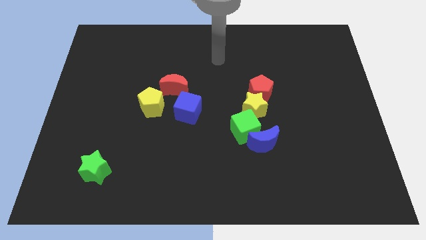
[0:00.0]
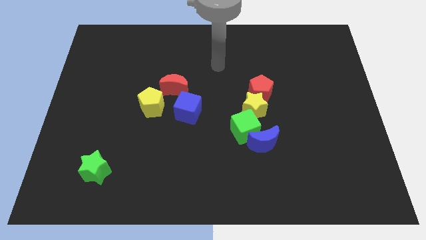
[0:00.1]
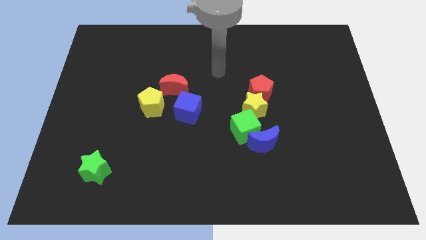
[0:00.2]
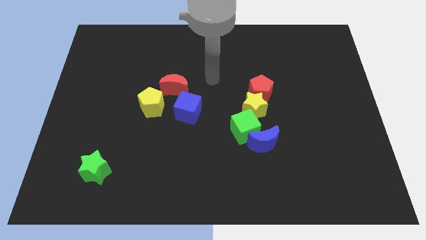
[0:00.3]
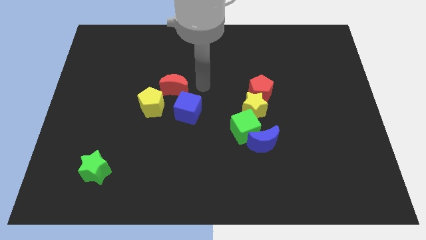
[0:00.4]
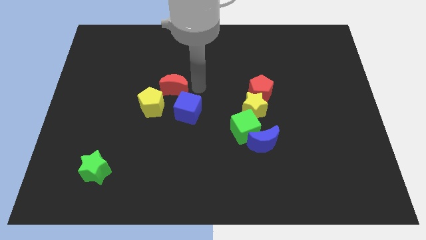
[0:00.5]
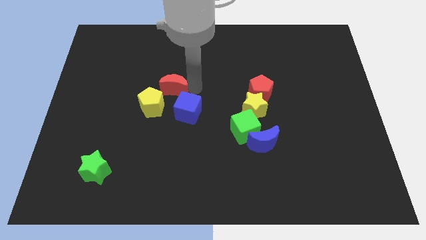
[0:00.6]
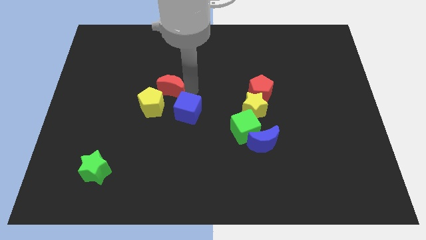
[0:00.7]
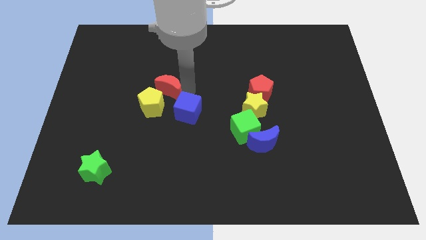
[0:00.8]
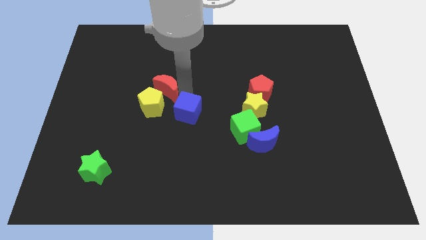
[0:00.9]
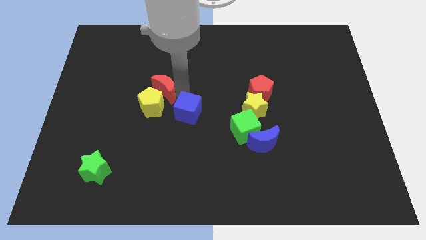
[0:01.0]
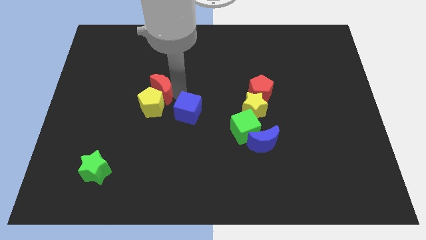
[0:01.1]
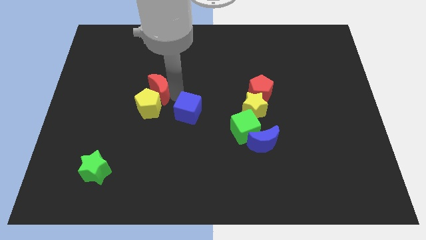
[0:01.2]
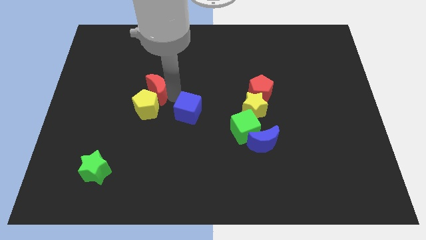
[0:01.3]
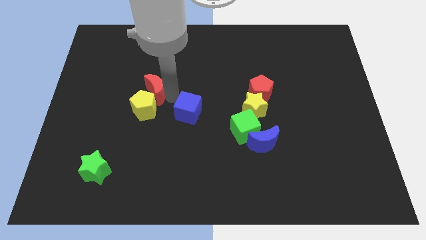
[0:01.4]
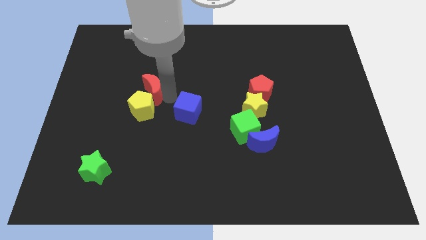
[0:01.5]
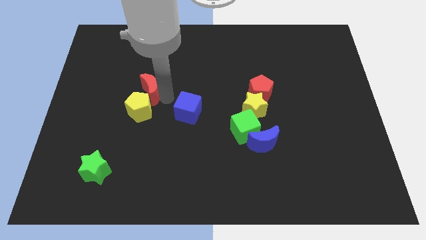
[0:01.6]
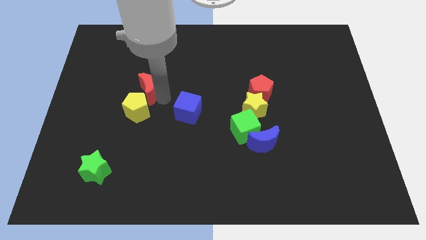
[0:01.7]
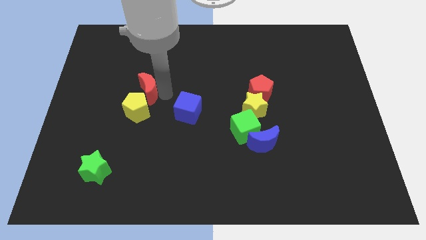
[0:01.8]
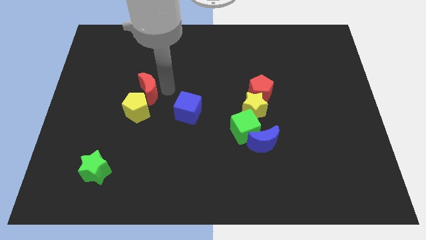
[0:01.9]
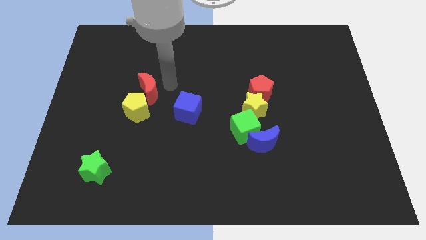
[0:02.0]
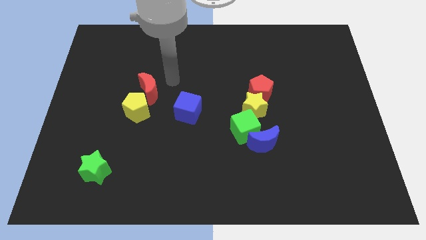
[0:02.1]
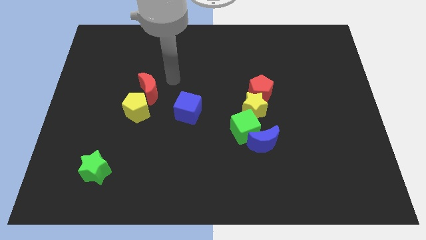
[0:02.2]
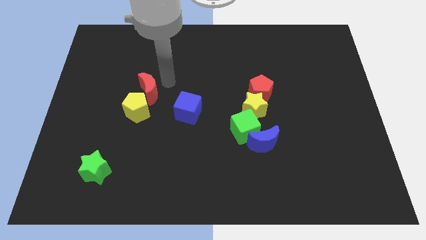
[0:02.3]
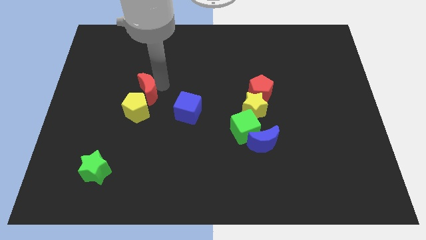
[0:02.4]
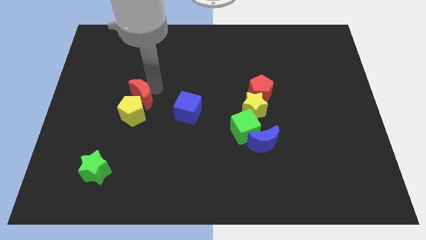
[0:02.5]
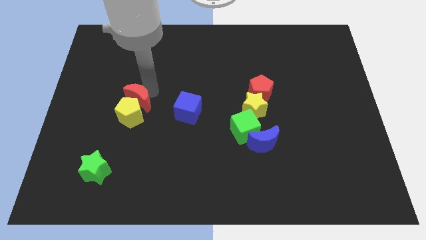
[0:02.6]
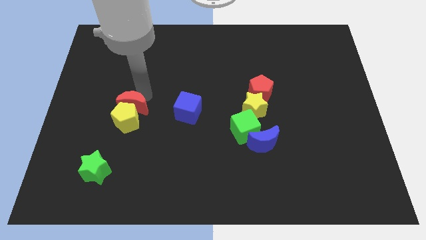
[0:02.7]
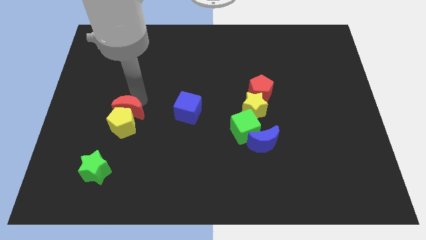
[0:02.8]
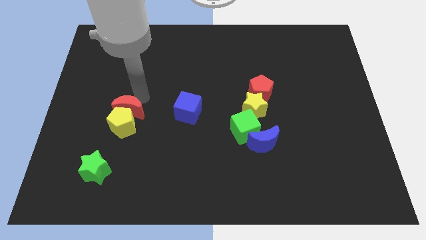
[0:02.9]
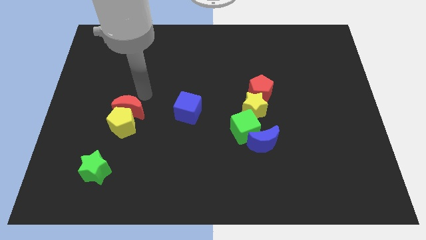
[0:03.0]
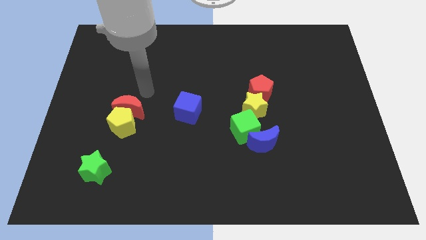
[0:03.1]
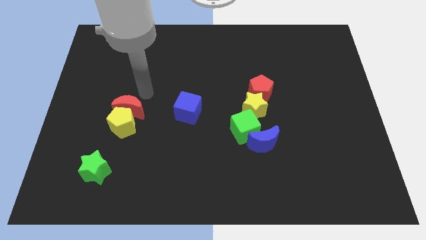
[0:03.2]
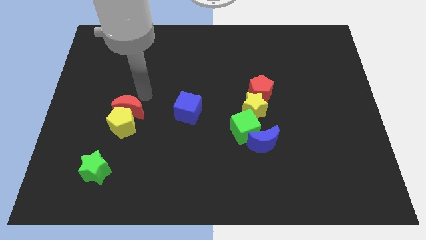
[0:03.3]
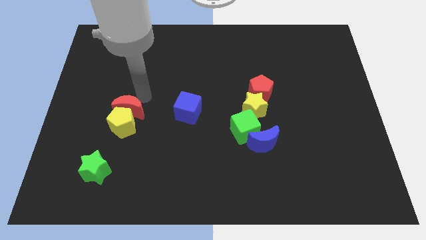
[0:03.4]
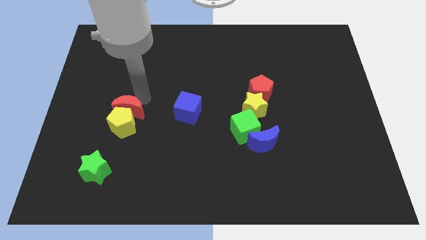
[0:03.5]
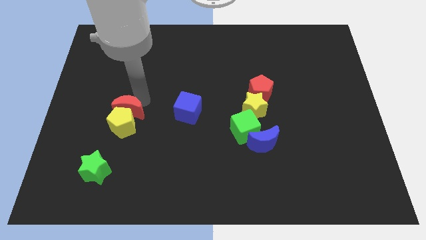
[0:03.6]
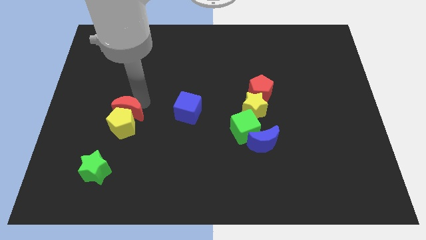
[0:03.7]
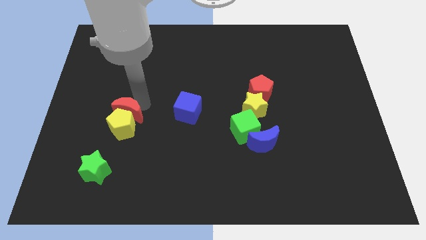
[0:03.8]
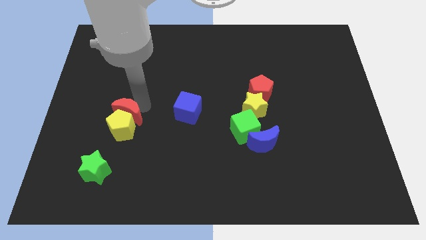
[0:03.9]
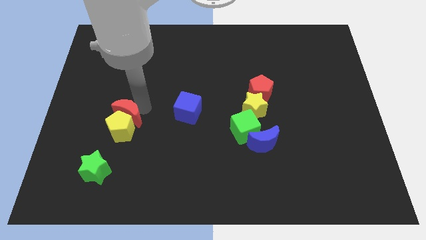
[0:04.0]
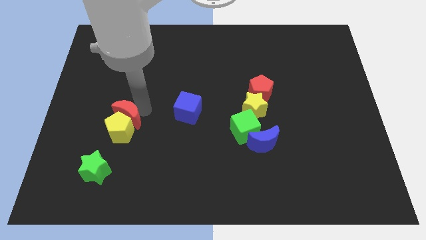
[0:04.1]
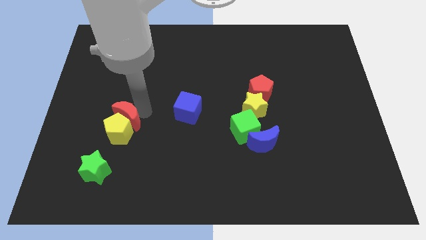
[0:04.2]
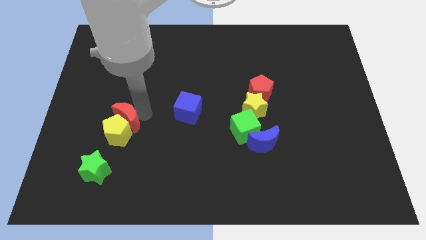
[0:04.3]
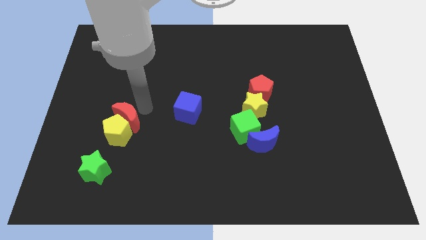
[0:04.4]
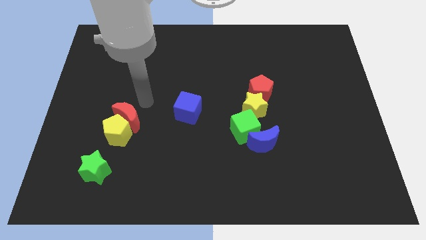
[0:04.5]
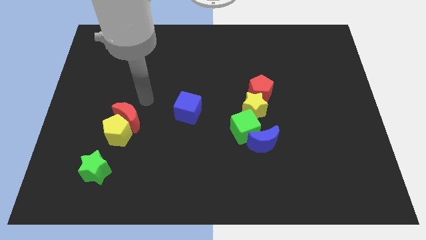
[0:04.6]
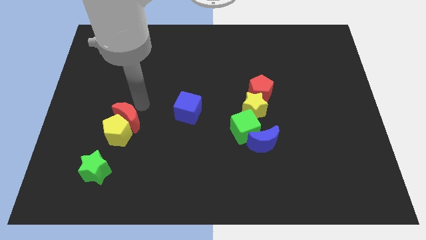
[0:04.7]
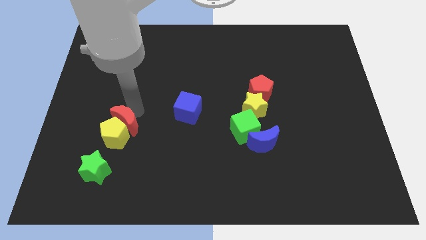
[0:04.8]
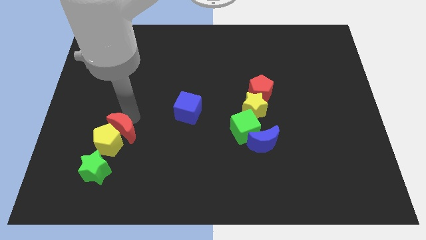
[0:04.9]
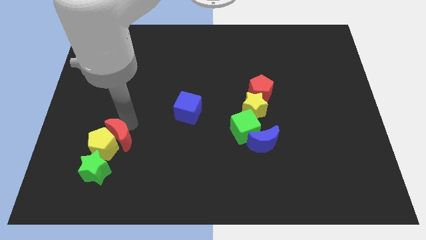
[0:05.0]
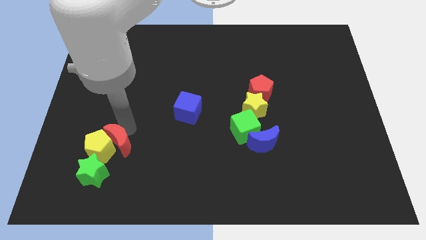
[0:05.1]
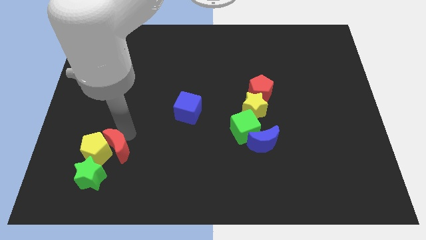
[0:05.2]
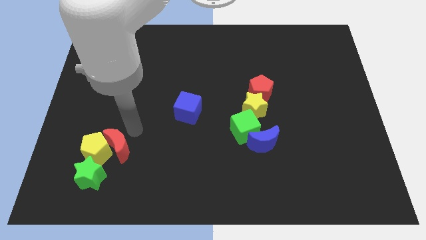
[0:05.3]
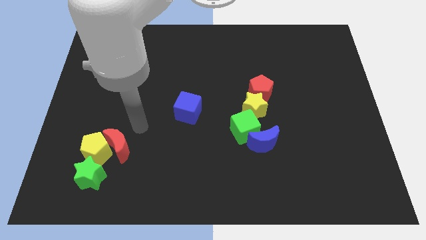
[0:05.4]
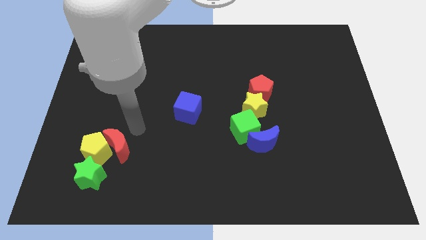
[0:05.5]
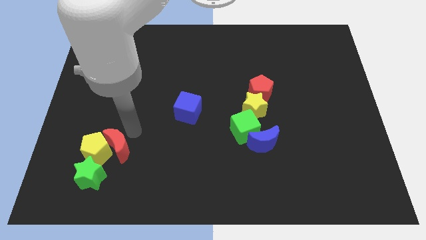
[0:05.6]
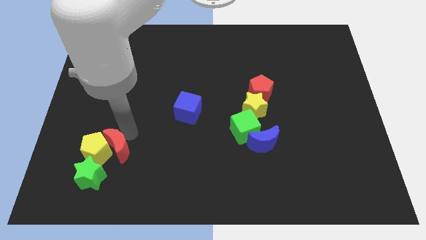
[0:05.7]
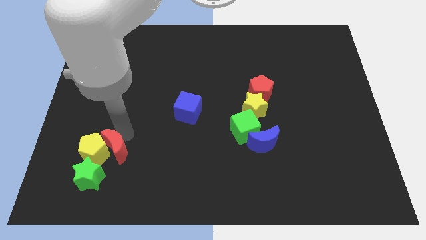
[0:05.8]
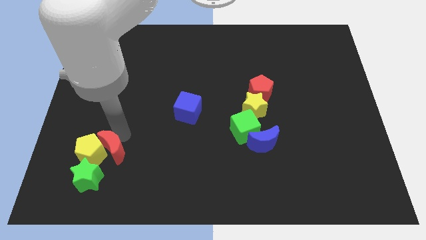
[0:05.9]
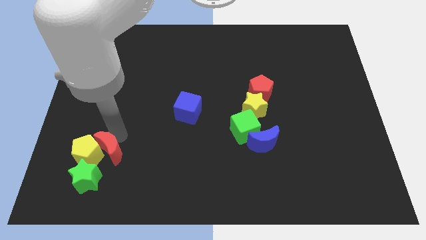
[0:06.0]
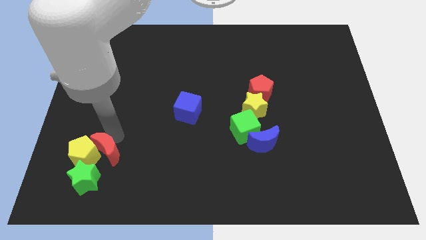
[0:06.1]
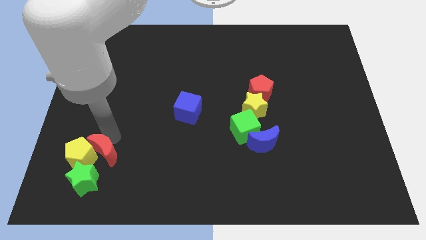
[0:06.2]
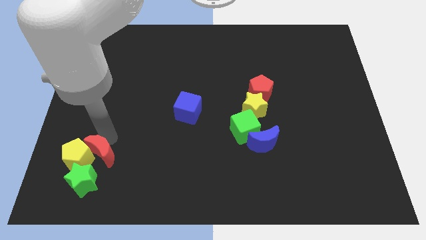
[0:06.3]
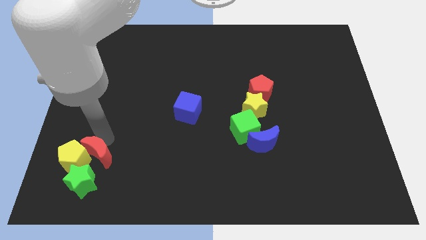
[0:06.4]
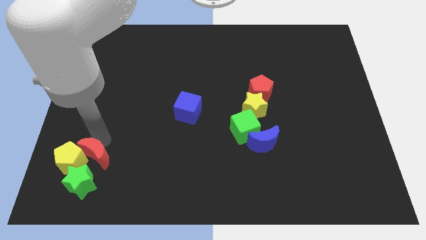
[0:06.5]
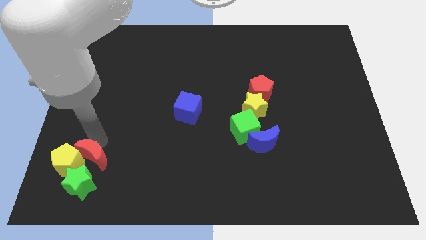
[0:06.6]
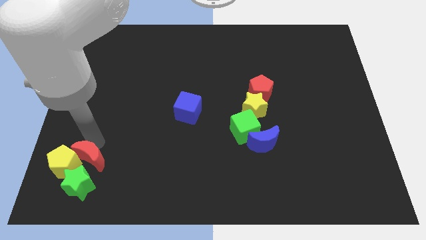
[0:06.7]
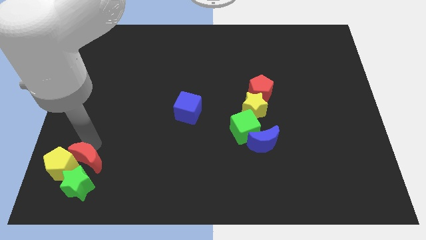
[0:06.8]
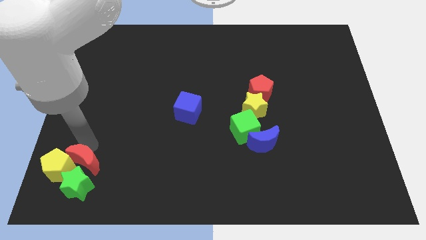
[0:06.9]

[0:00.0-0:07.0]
slide the red moon next to the green star
